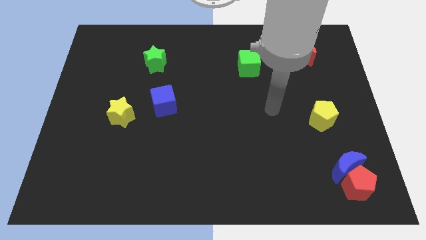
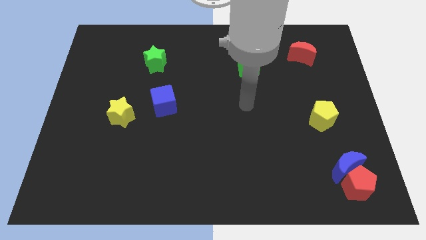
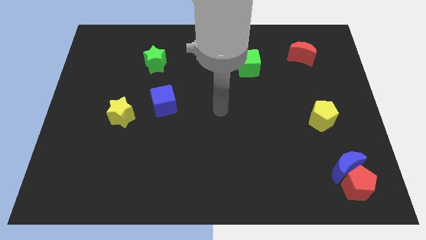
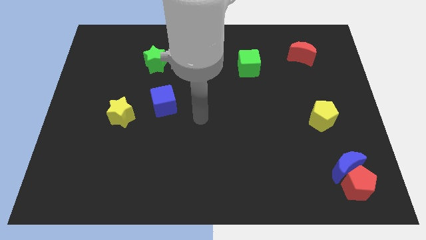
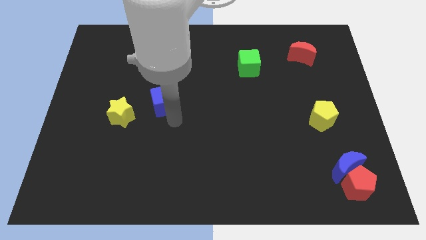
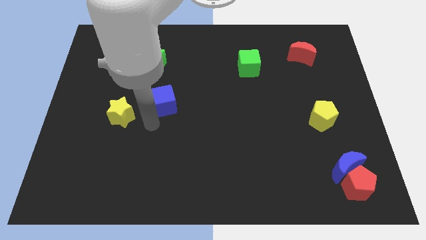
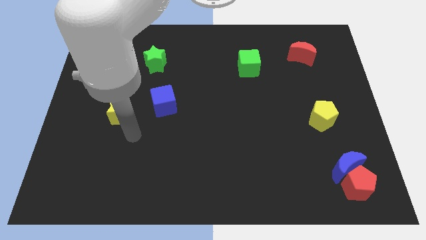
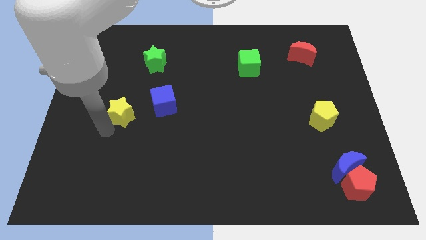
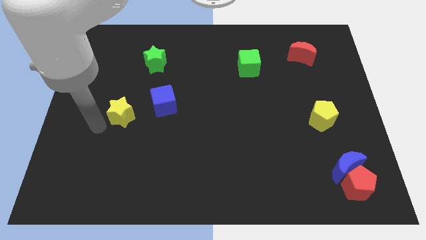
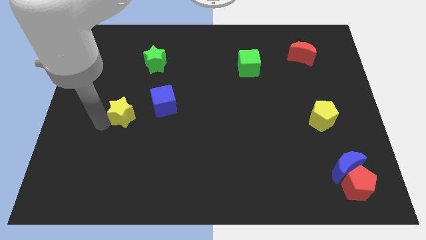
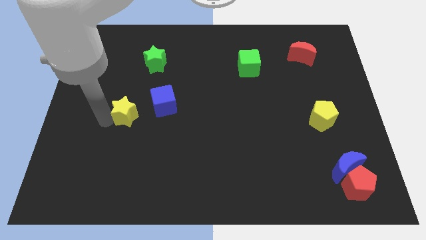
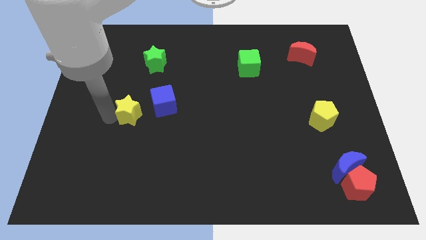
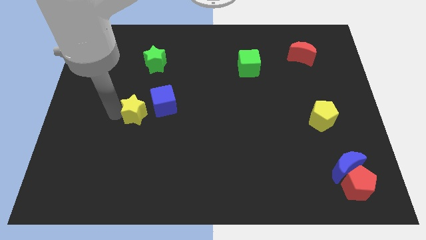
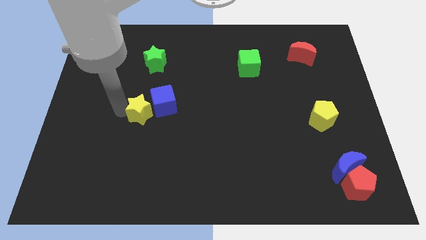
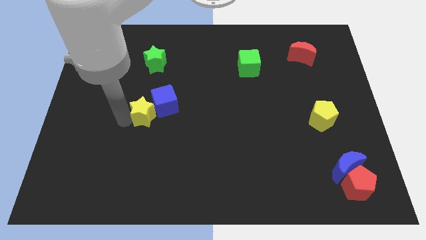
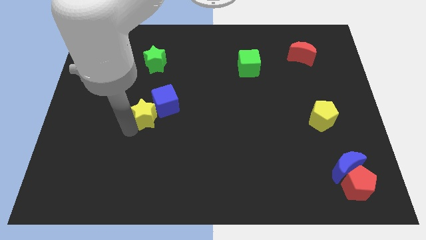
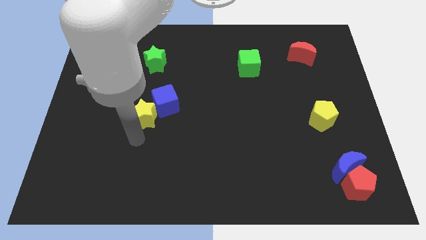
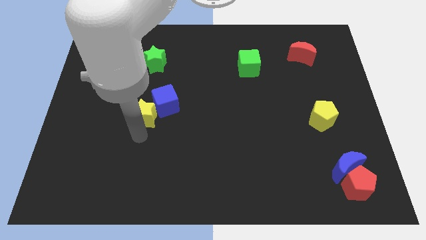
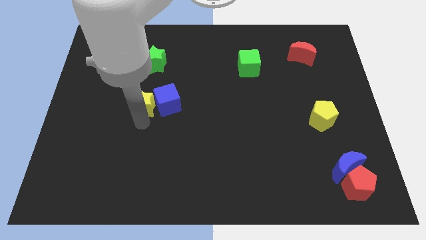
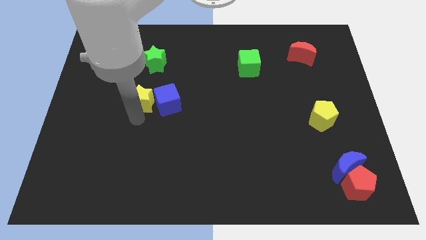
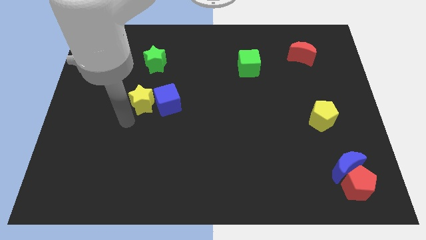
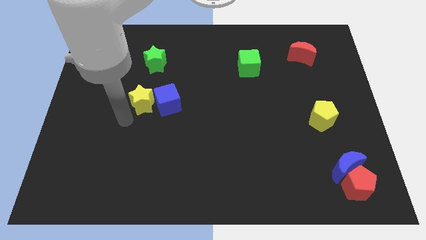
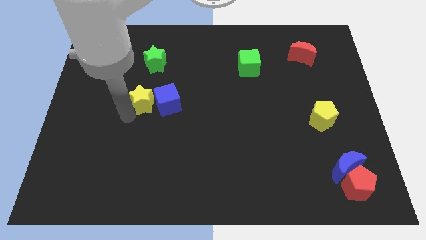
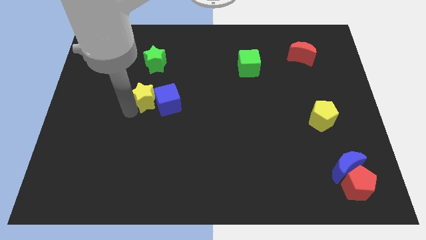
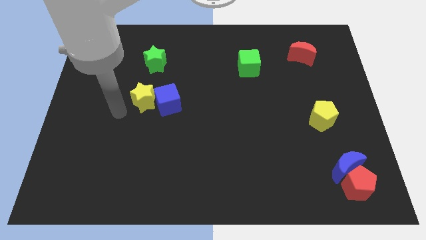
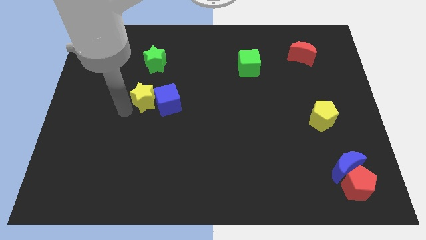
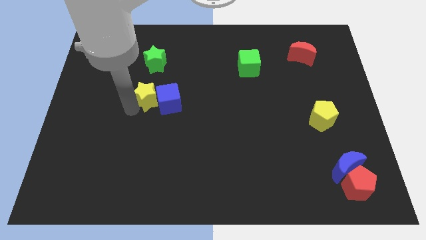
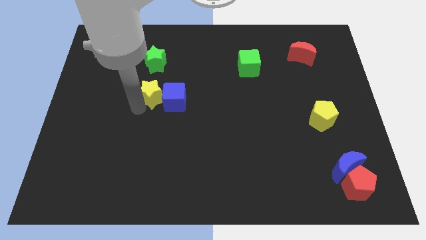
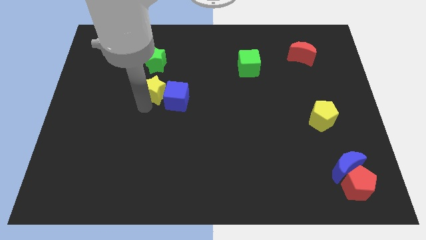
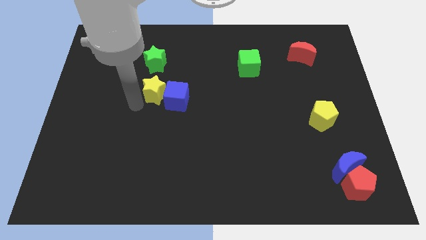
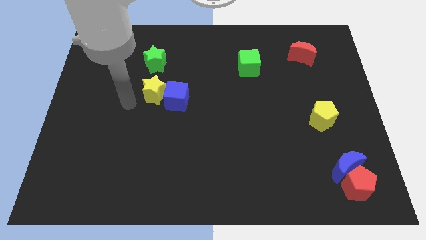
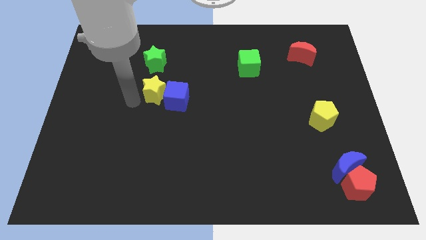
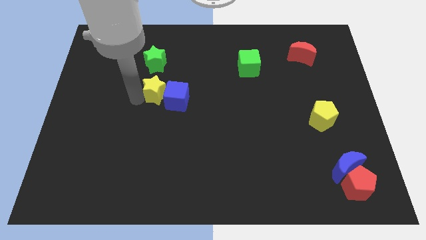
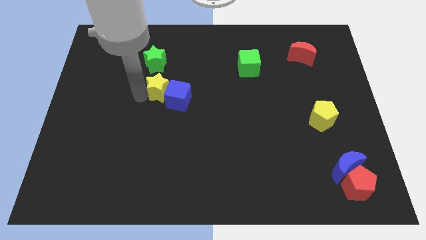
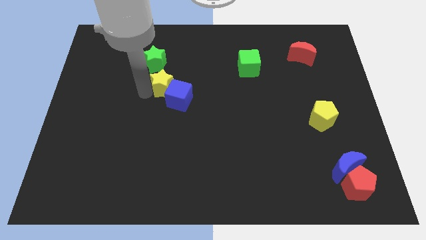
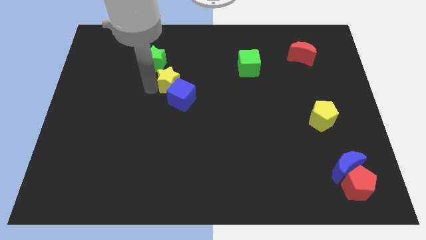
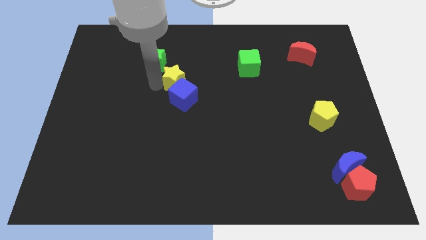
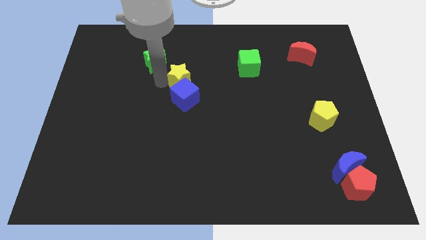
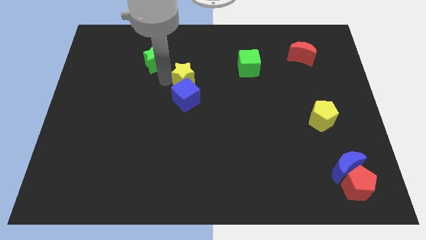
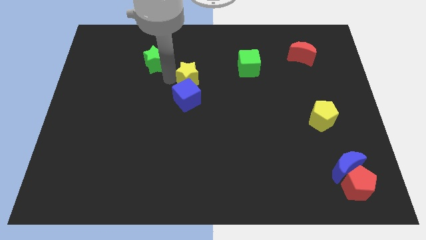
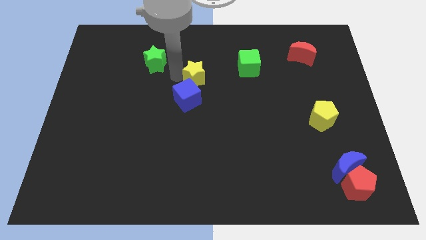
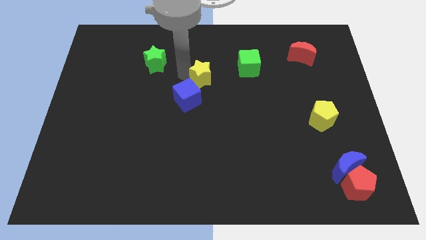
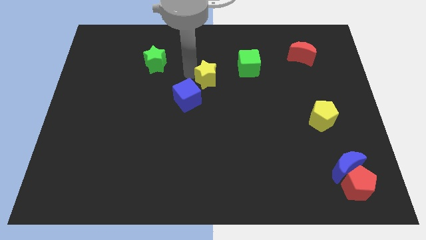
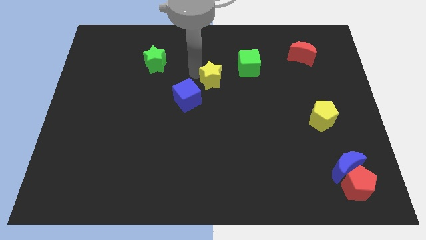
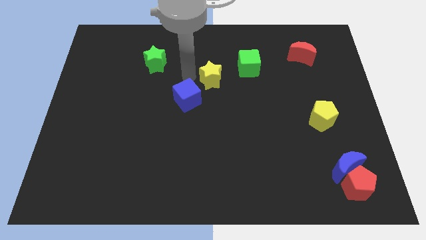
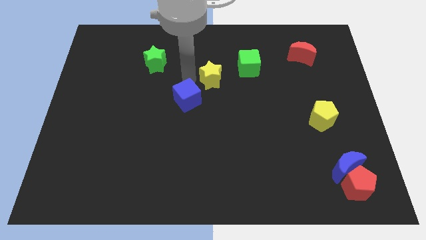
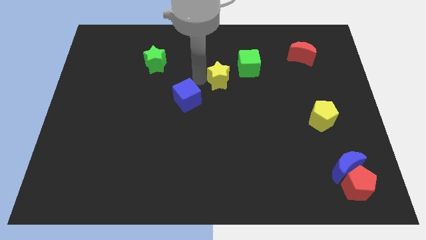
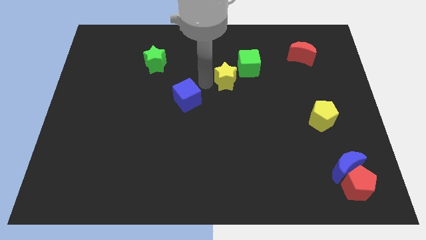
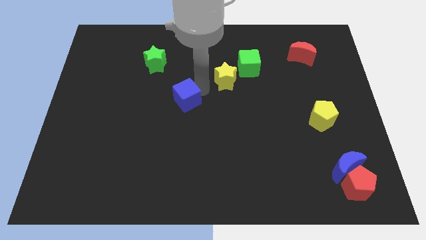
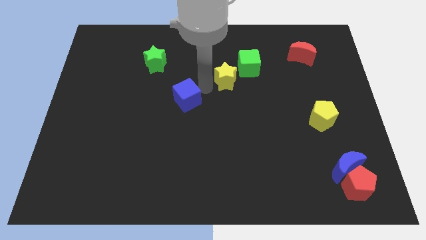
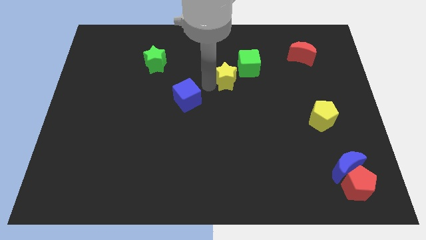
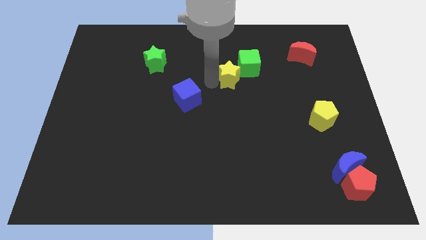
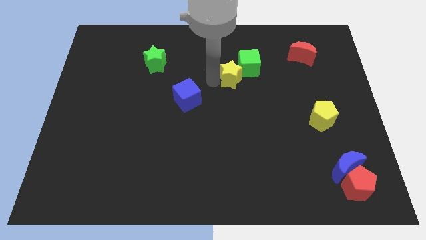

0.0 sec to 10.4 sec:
put the yellow star next to the green cube

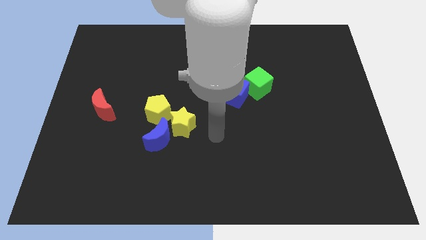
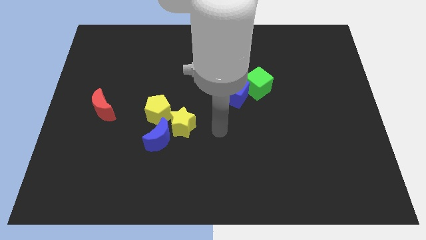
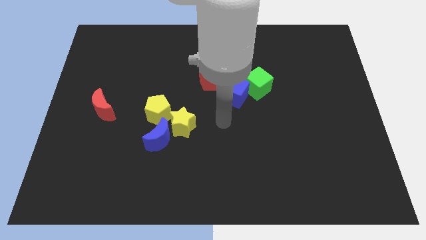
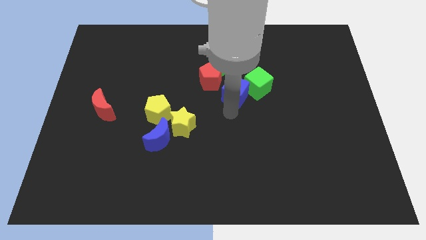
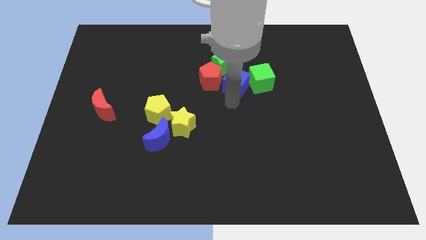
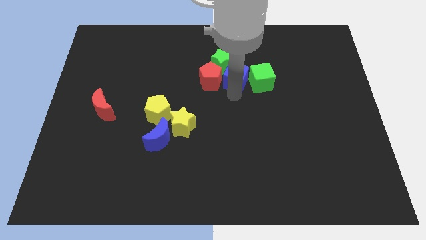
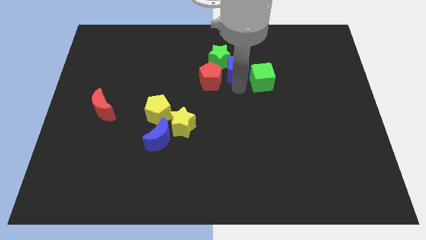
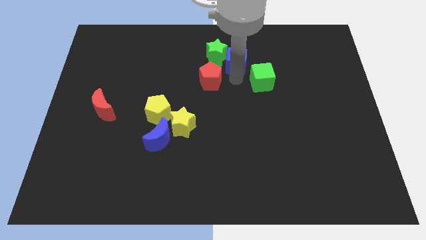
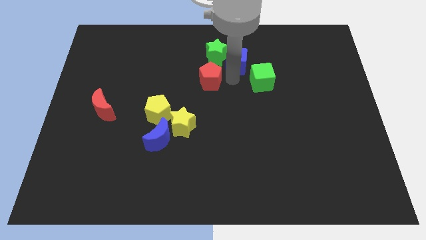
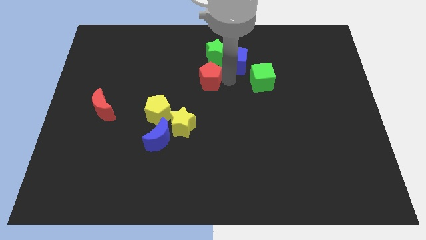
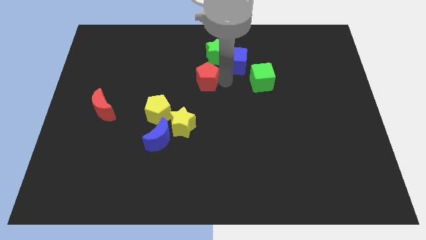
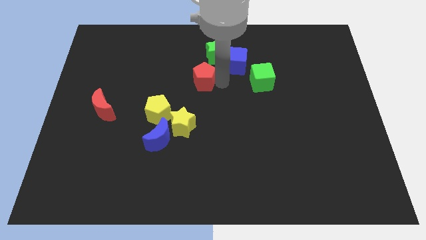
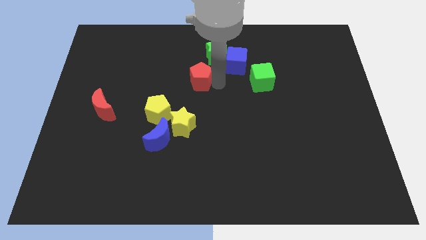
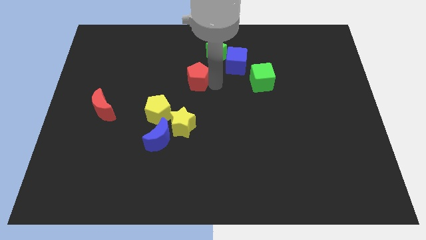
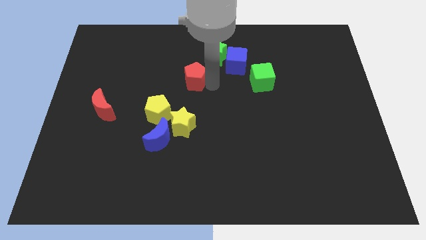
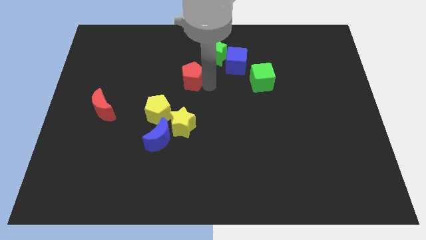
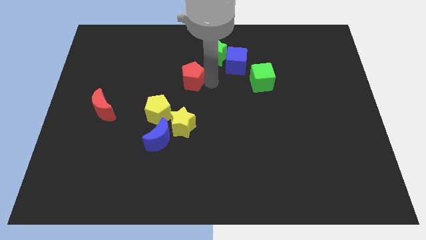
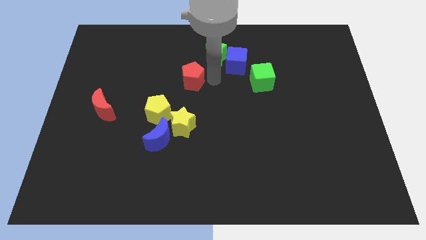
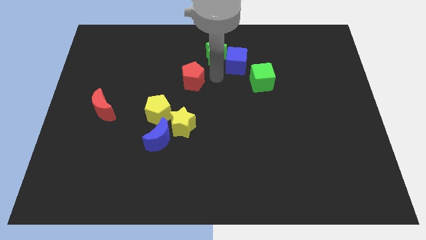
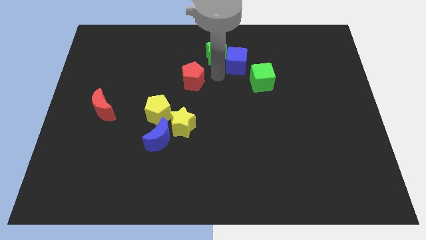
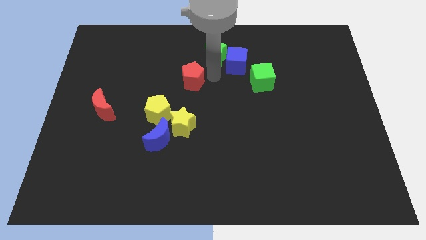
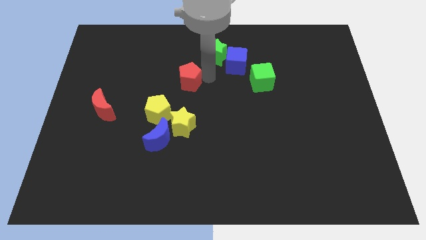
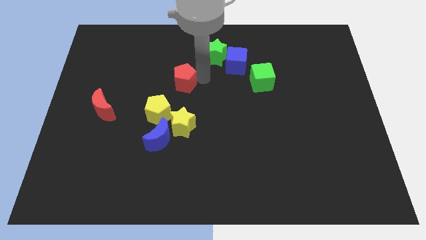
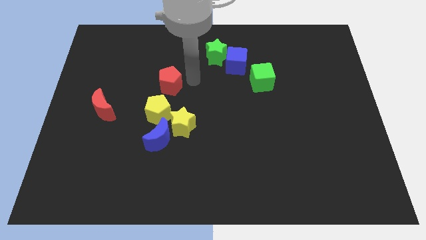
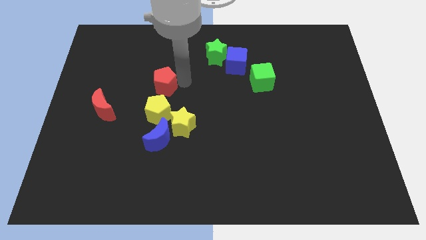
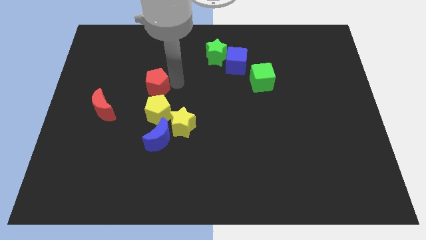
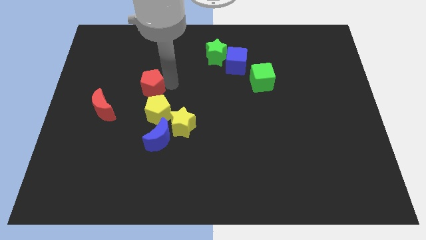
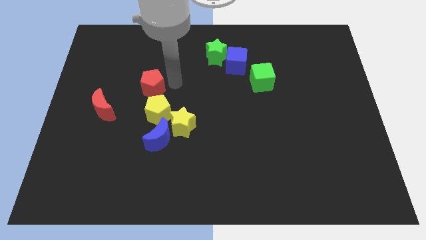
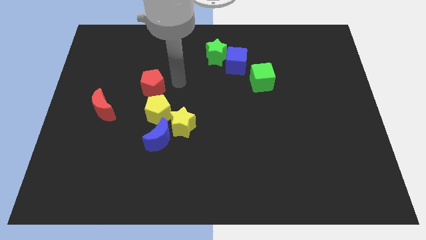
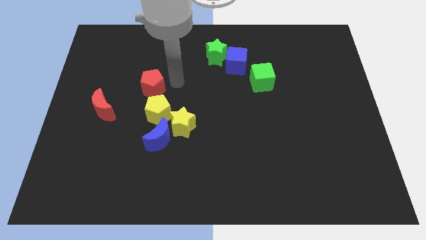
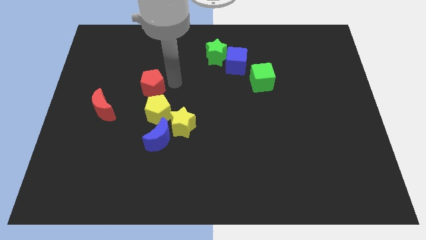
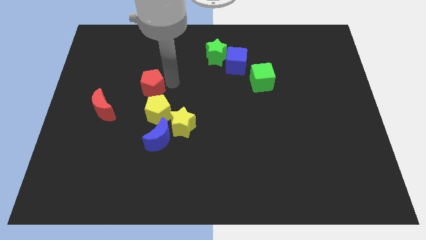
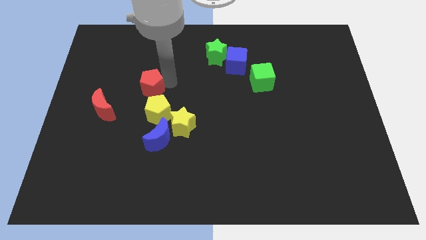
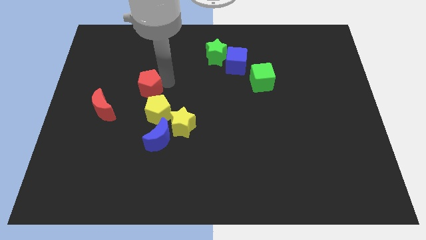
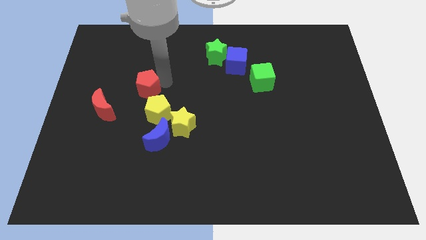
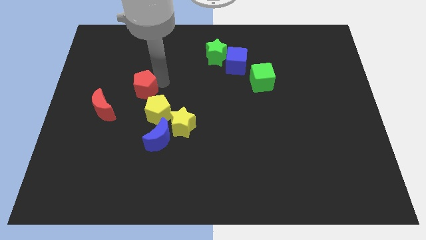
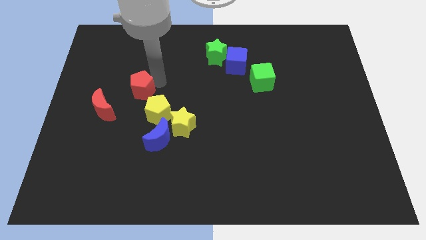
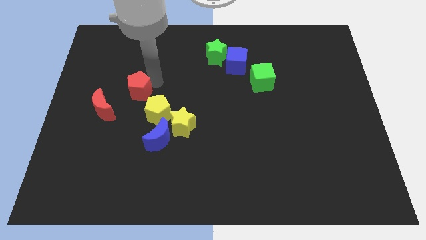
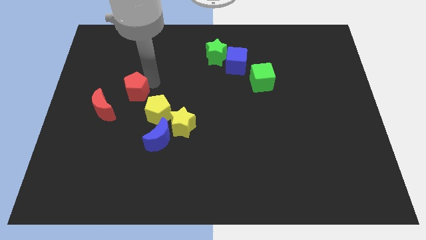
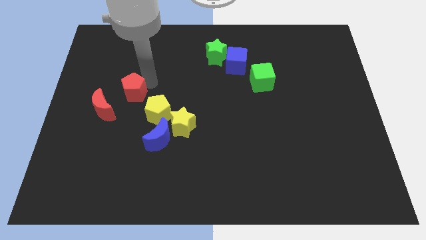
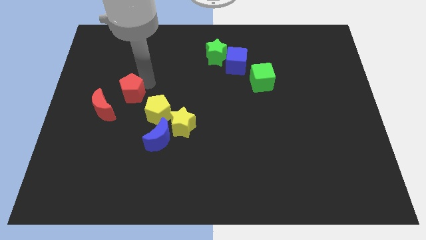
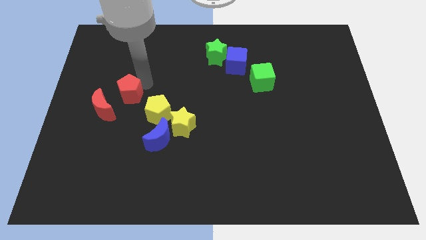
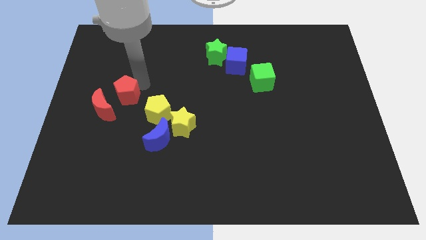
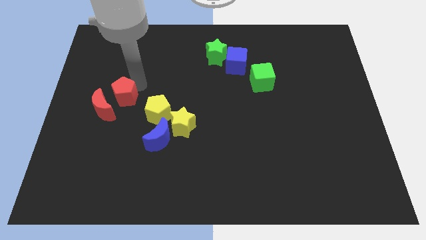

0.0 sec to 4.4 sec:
move the red pentagon next to the red moon
